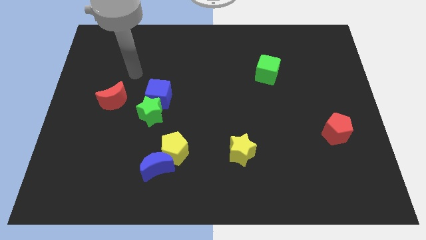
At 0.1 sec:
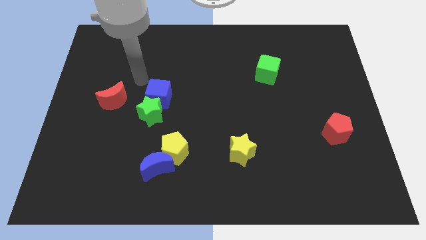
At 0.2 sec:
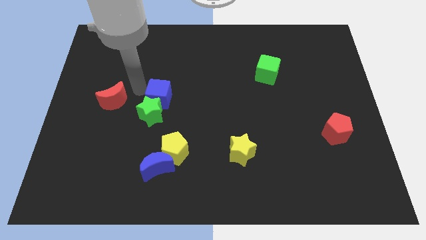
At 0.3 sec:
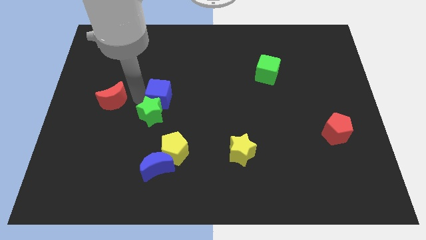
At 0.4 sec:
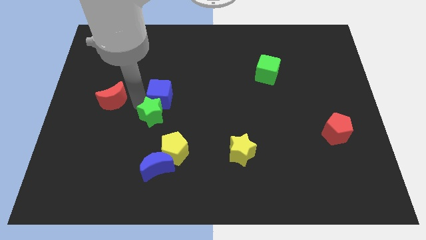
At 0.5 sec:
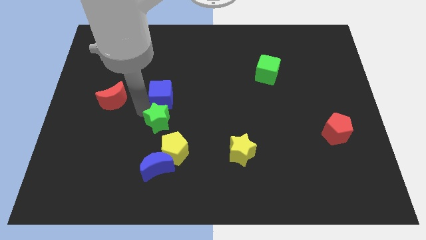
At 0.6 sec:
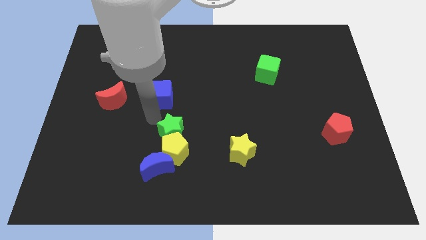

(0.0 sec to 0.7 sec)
separate the blue cube from the green star

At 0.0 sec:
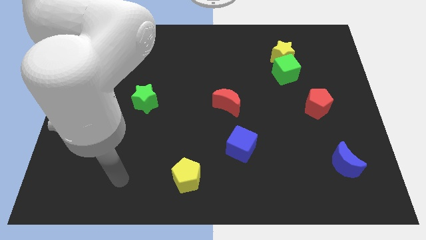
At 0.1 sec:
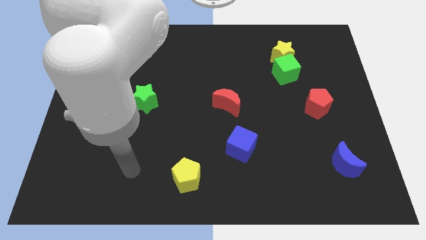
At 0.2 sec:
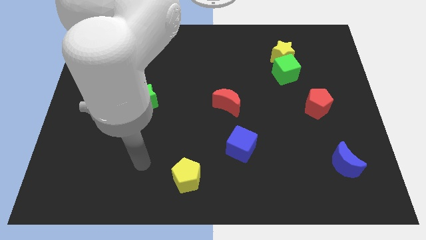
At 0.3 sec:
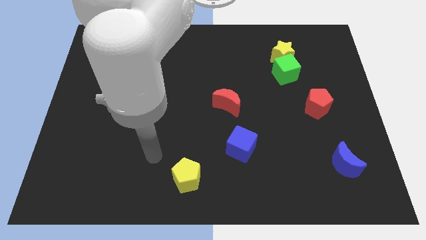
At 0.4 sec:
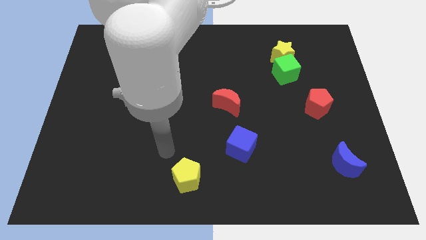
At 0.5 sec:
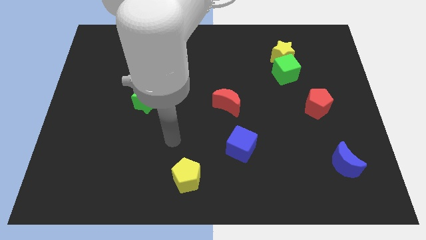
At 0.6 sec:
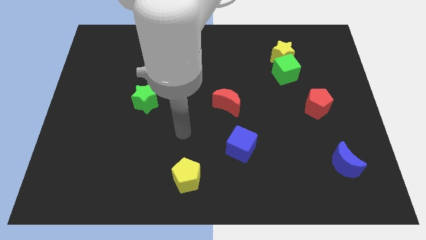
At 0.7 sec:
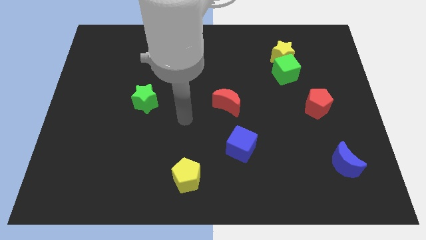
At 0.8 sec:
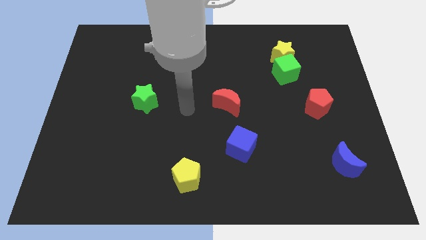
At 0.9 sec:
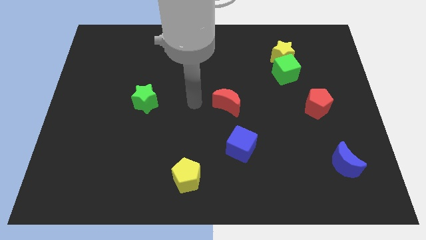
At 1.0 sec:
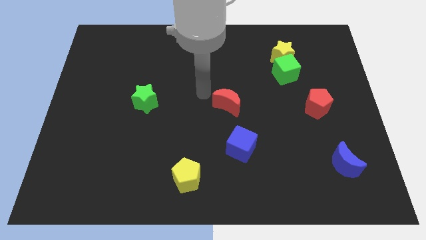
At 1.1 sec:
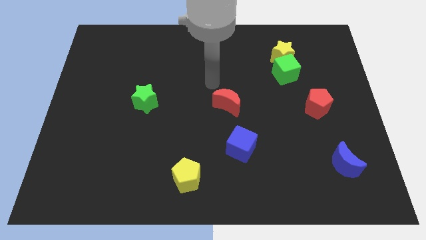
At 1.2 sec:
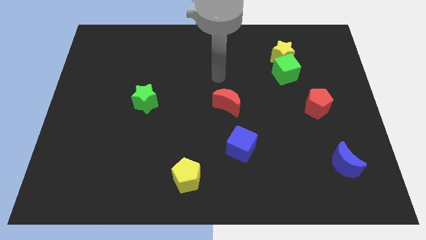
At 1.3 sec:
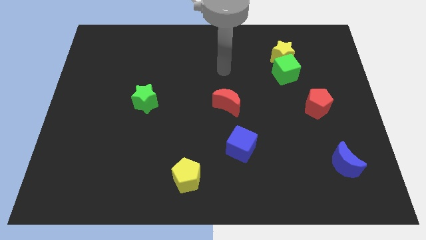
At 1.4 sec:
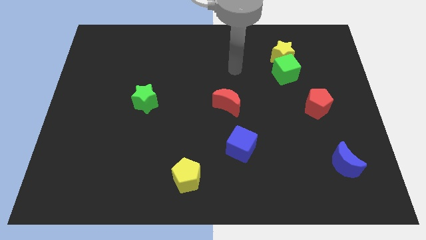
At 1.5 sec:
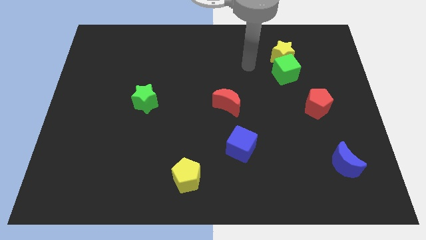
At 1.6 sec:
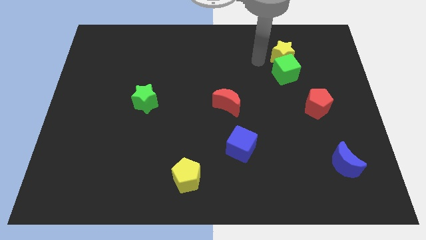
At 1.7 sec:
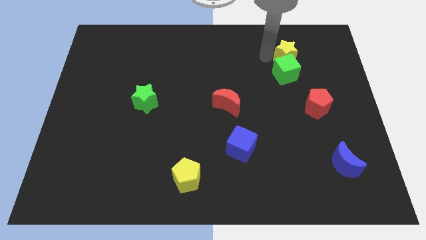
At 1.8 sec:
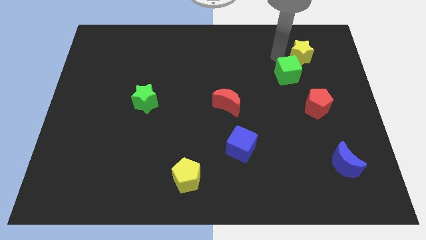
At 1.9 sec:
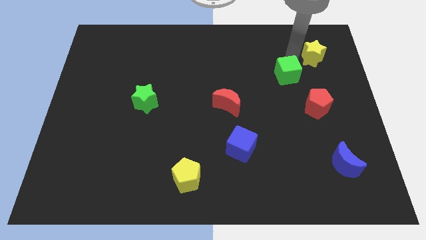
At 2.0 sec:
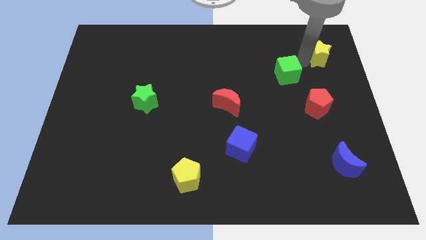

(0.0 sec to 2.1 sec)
pull the green cube apart from the yellow star

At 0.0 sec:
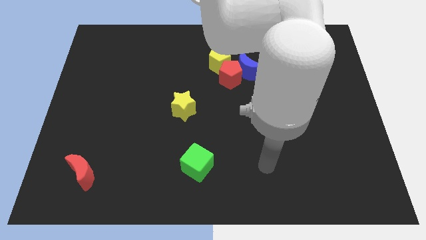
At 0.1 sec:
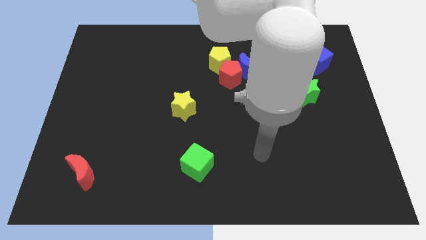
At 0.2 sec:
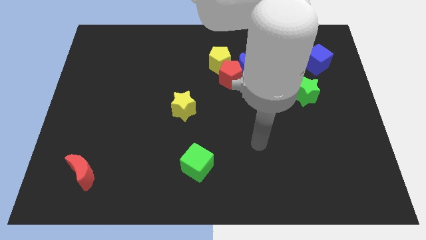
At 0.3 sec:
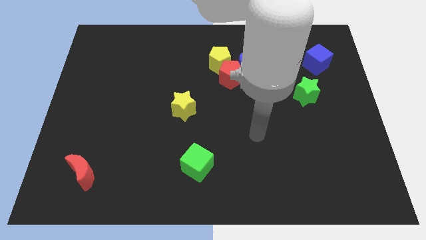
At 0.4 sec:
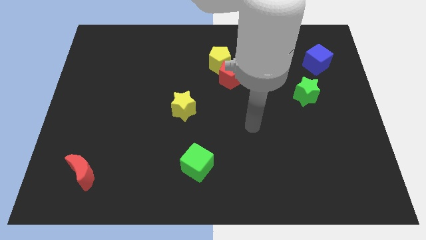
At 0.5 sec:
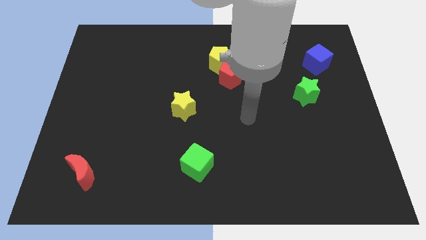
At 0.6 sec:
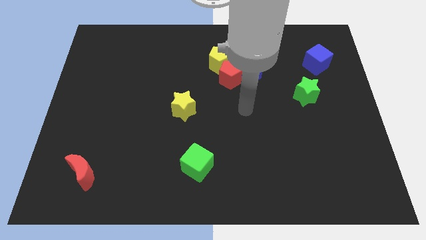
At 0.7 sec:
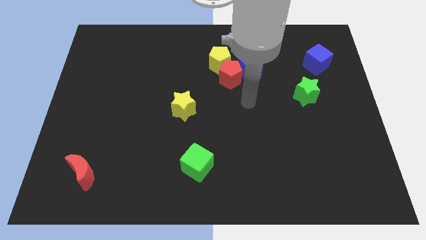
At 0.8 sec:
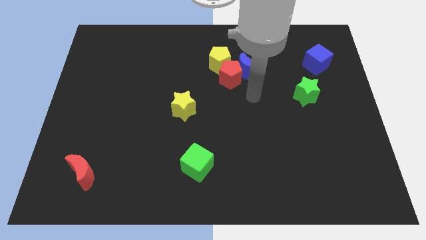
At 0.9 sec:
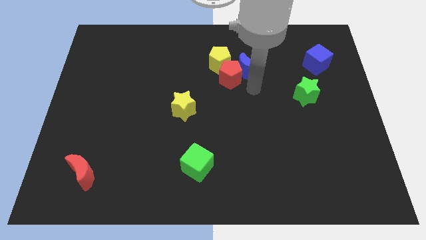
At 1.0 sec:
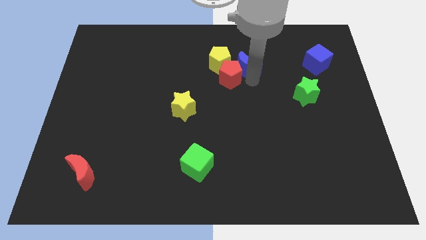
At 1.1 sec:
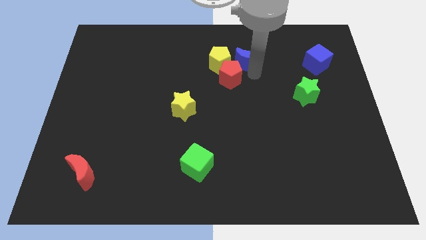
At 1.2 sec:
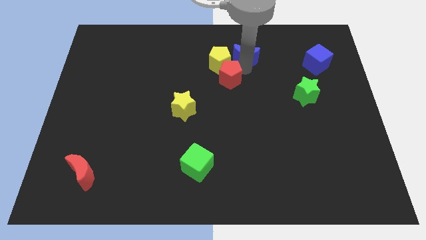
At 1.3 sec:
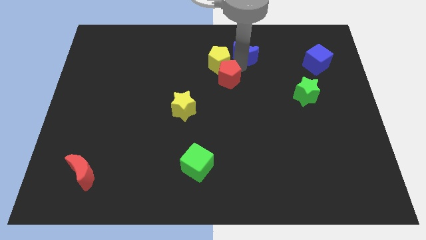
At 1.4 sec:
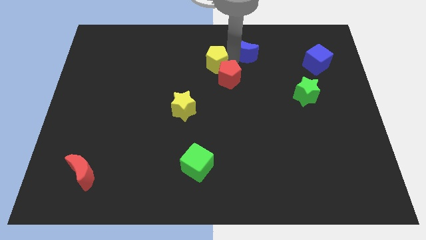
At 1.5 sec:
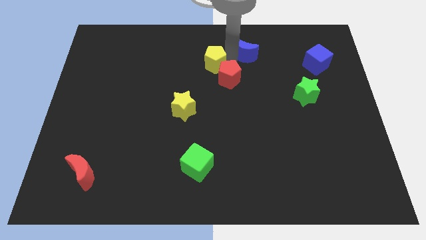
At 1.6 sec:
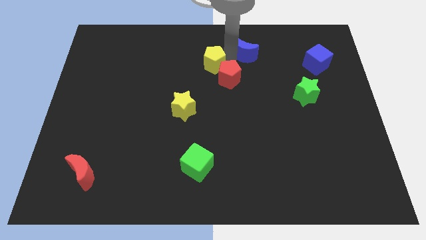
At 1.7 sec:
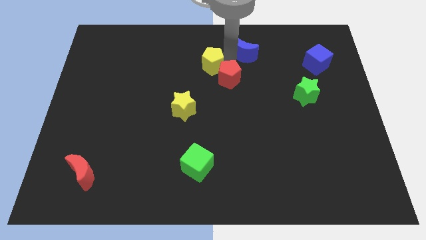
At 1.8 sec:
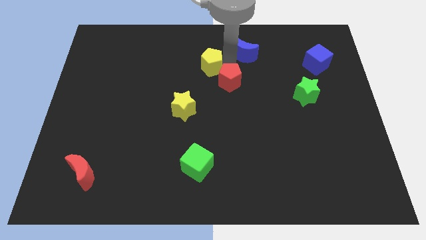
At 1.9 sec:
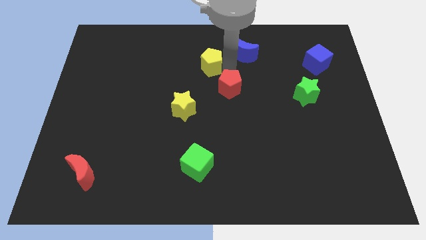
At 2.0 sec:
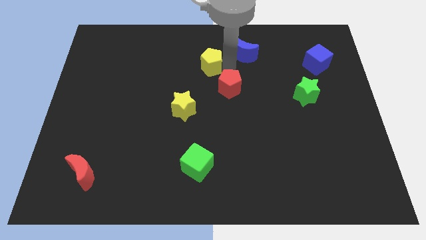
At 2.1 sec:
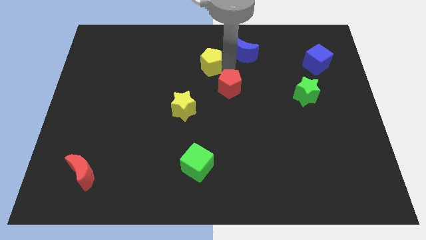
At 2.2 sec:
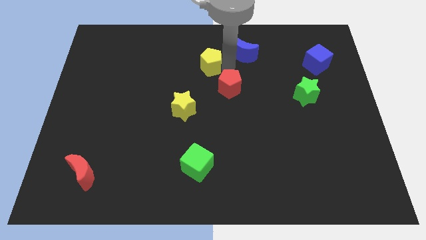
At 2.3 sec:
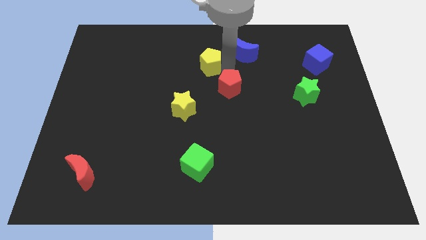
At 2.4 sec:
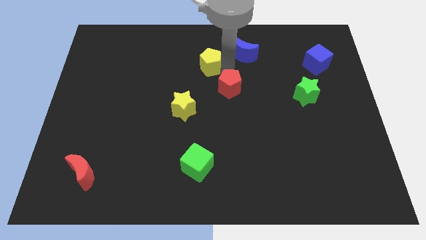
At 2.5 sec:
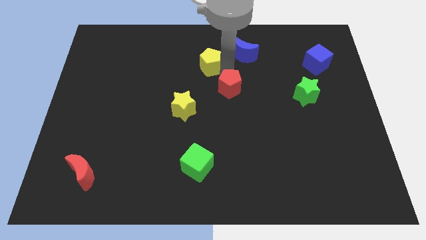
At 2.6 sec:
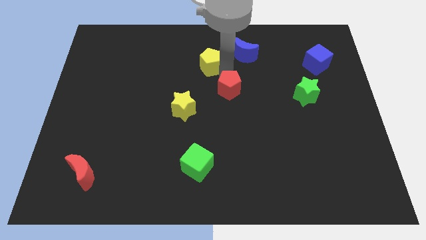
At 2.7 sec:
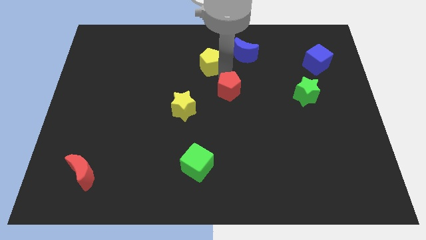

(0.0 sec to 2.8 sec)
separate the red pentagon from the blue moon and yellow pentagon

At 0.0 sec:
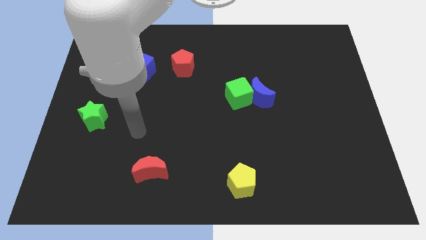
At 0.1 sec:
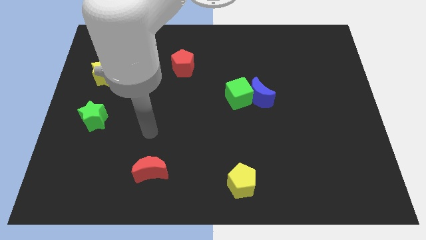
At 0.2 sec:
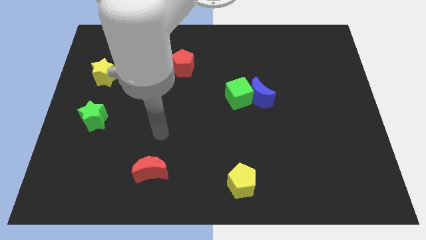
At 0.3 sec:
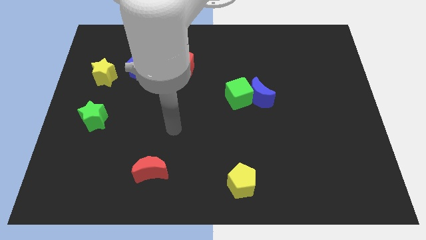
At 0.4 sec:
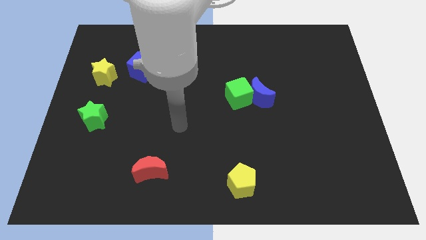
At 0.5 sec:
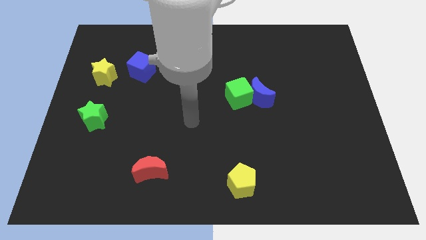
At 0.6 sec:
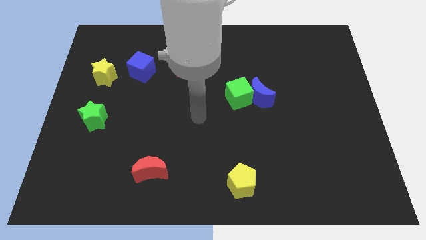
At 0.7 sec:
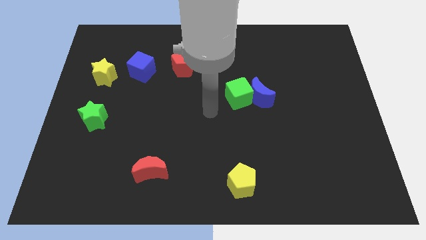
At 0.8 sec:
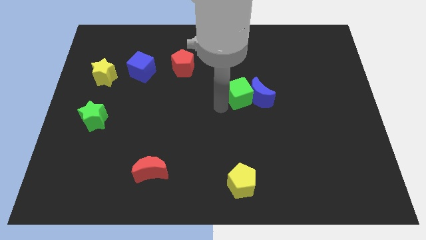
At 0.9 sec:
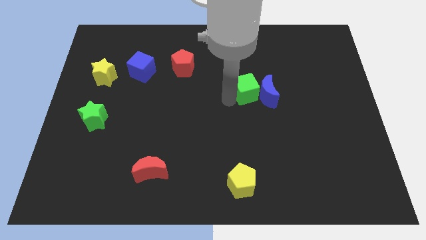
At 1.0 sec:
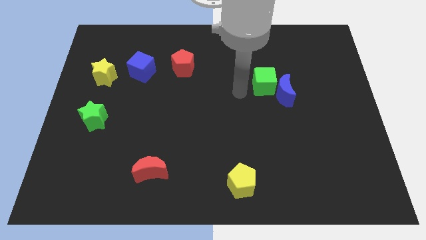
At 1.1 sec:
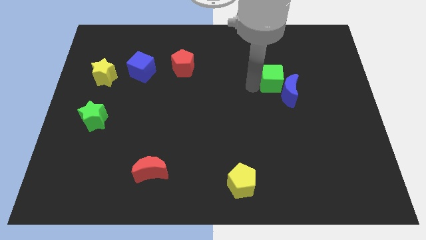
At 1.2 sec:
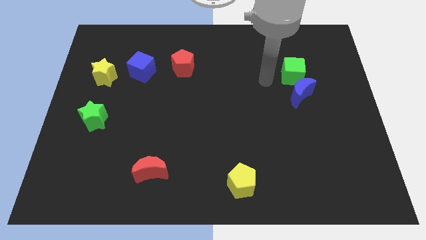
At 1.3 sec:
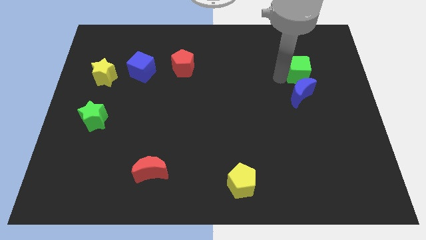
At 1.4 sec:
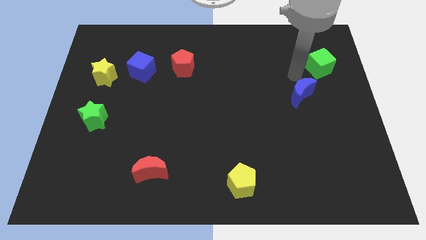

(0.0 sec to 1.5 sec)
separate the blue moon from the green cube

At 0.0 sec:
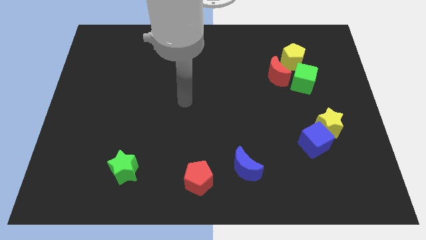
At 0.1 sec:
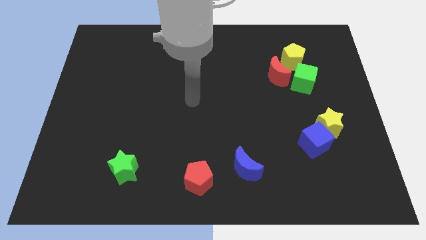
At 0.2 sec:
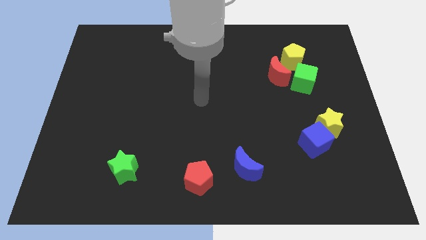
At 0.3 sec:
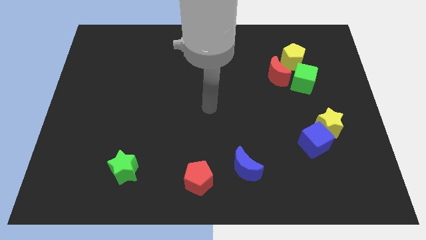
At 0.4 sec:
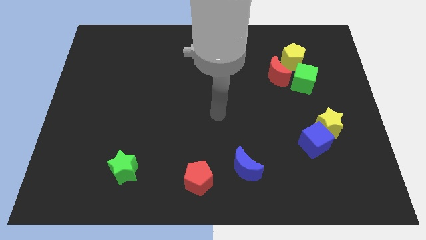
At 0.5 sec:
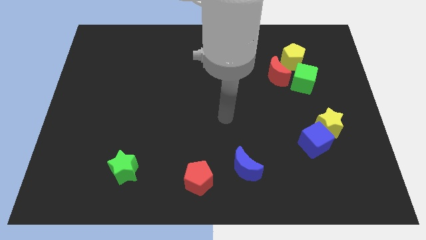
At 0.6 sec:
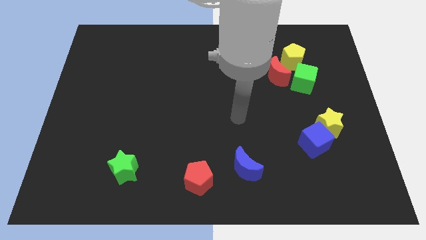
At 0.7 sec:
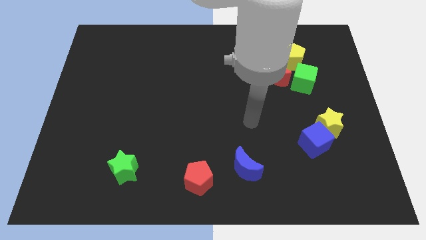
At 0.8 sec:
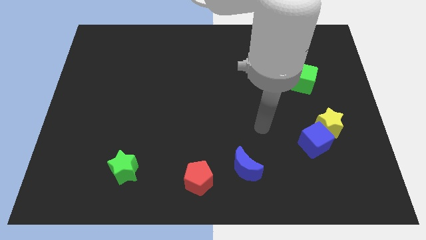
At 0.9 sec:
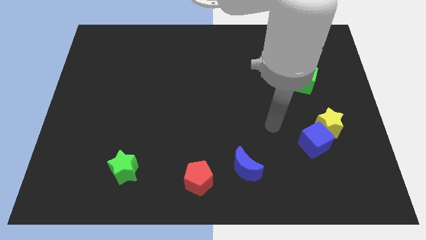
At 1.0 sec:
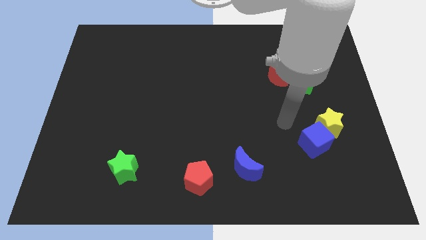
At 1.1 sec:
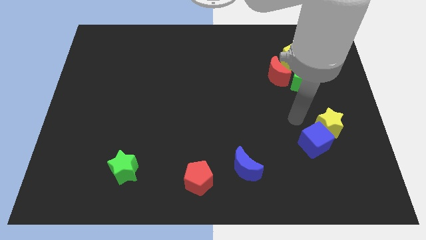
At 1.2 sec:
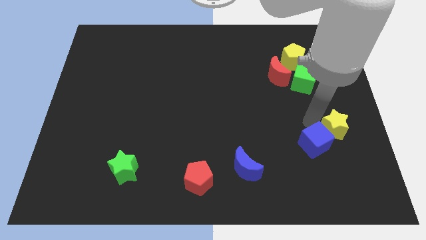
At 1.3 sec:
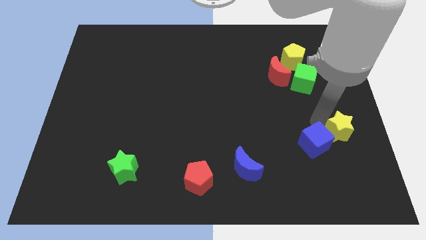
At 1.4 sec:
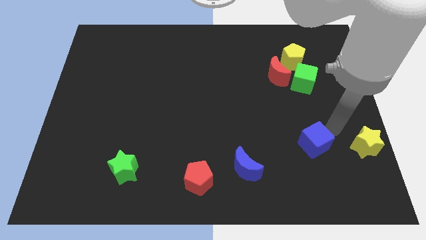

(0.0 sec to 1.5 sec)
separate the blue cube from the yellow star

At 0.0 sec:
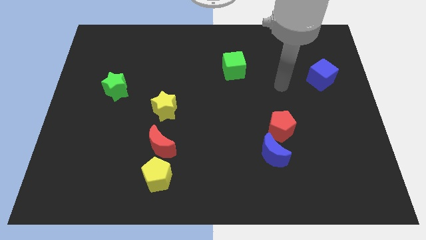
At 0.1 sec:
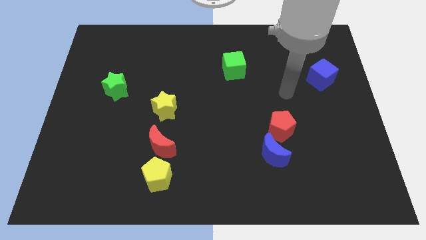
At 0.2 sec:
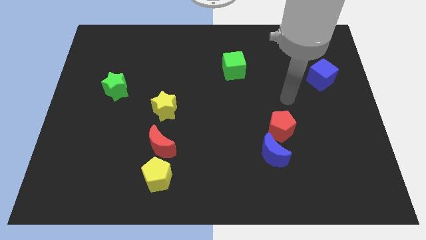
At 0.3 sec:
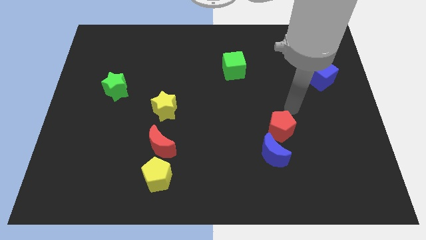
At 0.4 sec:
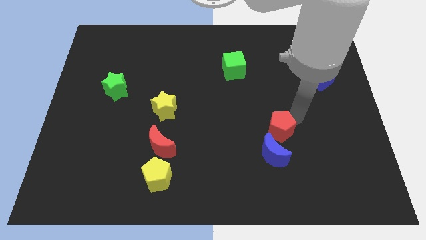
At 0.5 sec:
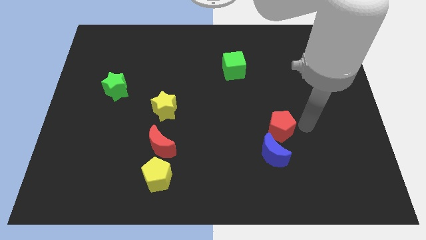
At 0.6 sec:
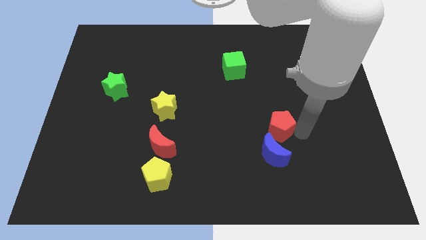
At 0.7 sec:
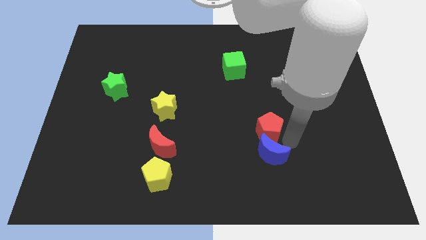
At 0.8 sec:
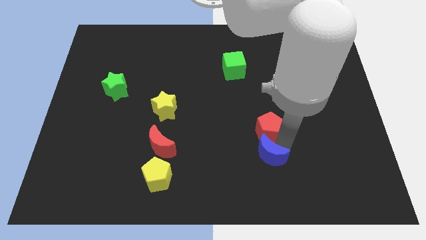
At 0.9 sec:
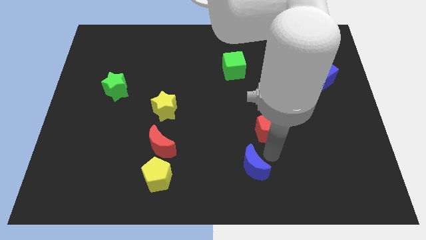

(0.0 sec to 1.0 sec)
pull the red pentagon apart from the blue moon
